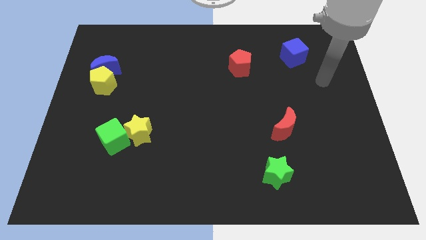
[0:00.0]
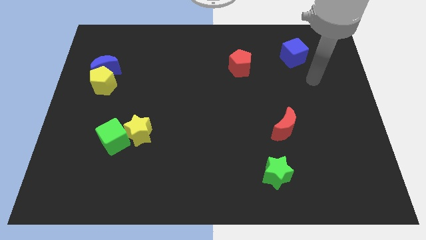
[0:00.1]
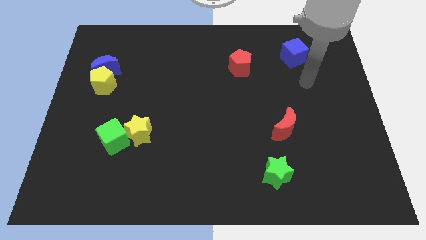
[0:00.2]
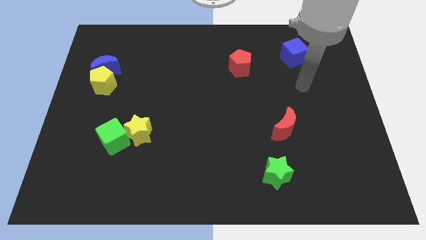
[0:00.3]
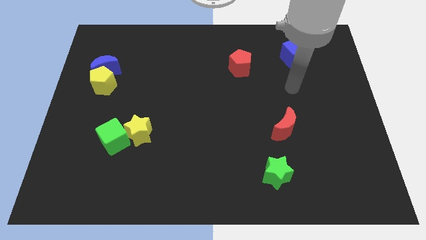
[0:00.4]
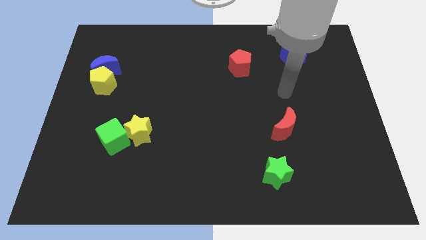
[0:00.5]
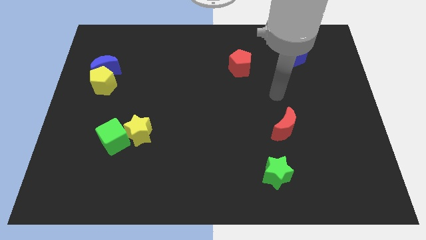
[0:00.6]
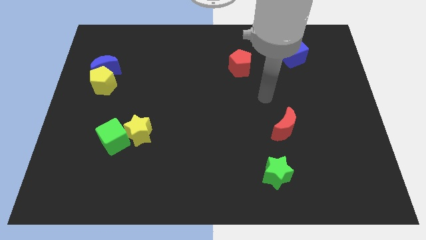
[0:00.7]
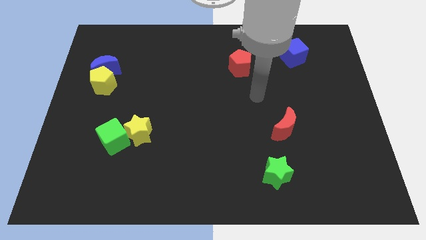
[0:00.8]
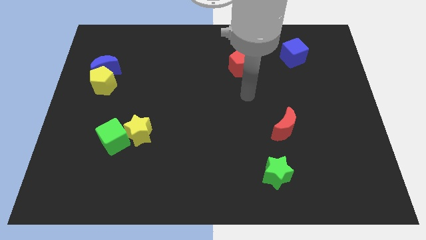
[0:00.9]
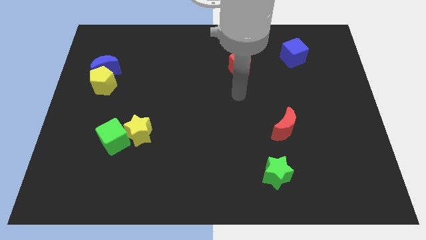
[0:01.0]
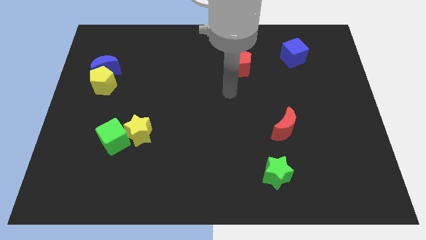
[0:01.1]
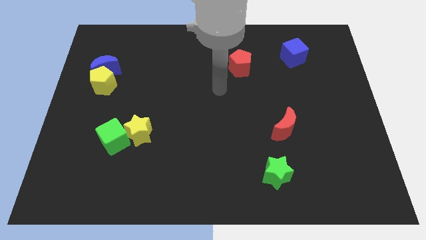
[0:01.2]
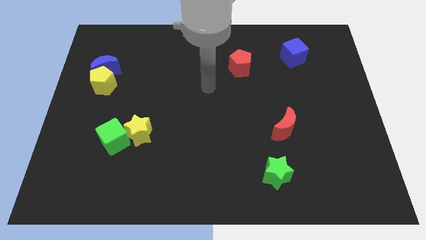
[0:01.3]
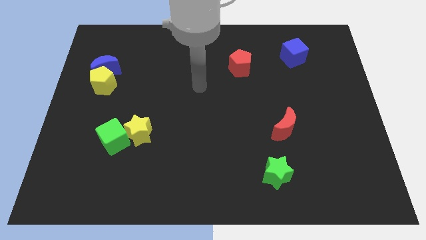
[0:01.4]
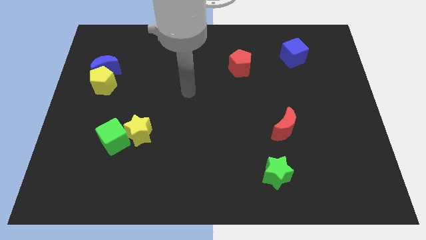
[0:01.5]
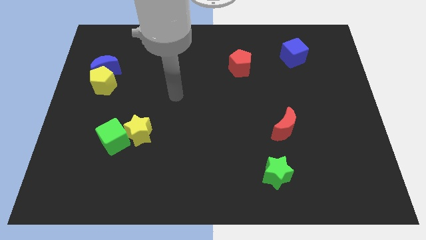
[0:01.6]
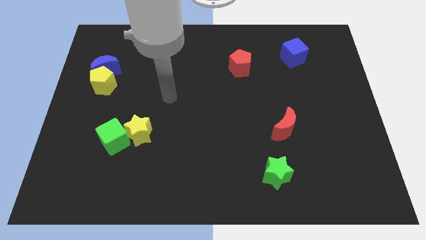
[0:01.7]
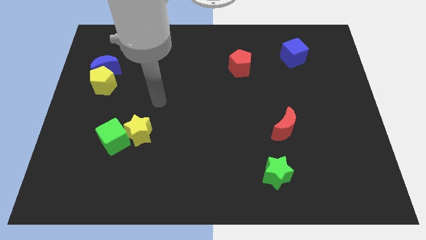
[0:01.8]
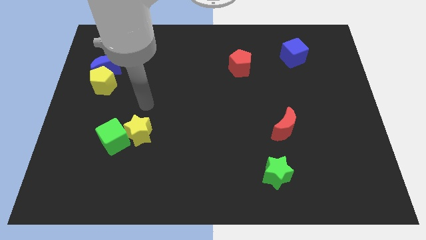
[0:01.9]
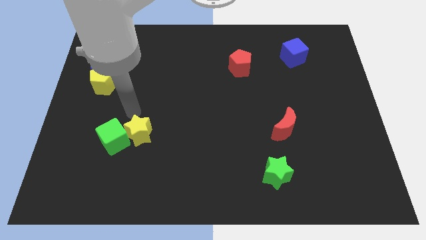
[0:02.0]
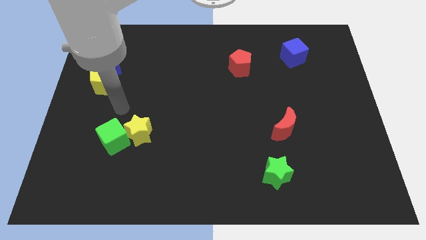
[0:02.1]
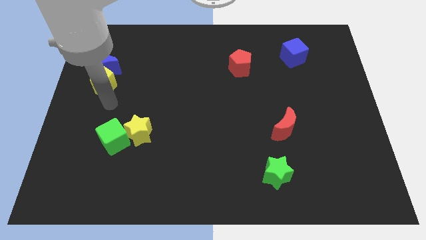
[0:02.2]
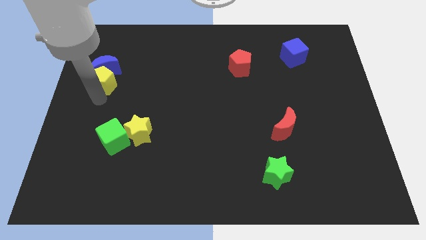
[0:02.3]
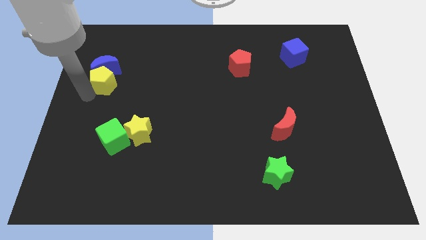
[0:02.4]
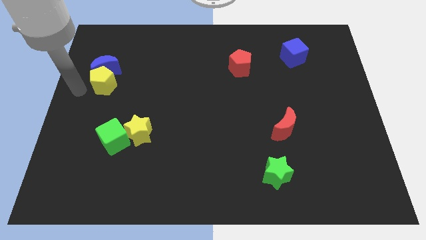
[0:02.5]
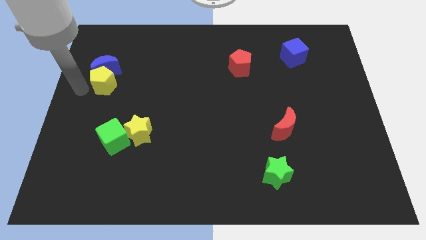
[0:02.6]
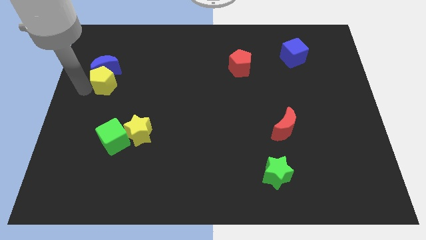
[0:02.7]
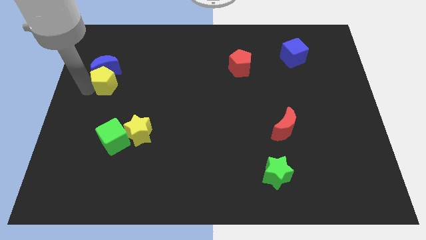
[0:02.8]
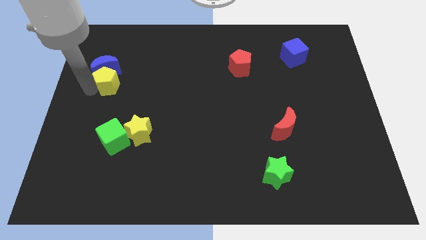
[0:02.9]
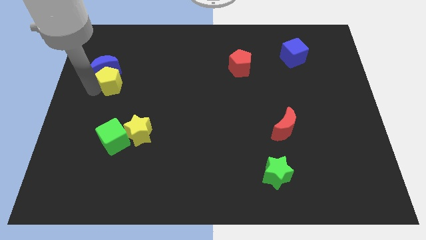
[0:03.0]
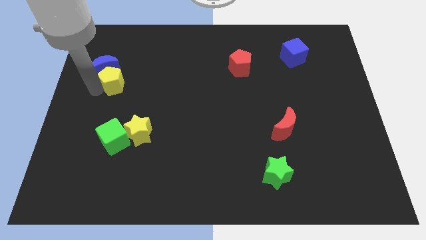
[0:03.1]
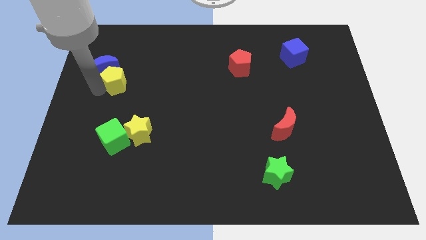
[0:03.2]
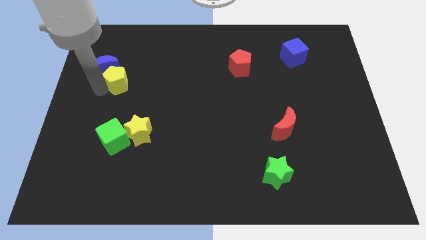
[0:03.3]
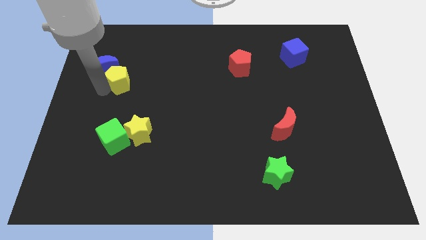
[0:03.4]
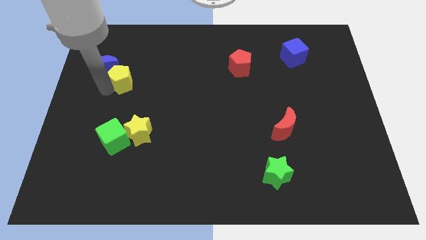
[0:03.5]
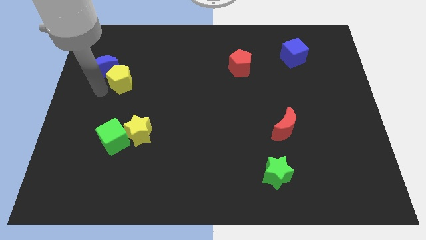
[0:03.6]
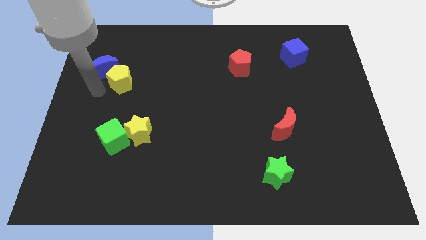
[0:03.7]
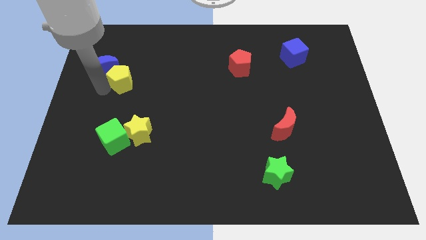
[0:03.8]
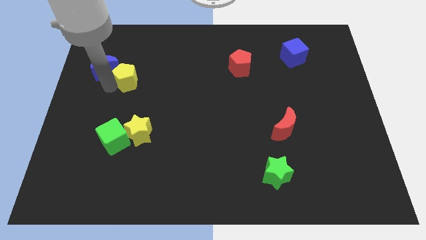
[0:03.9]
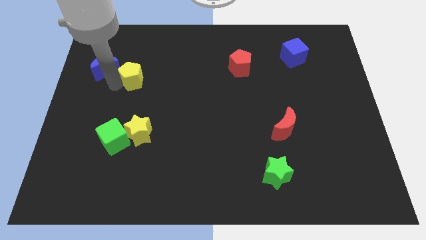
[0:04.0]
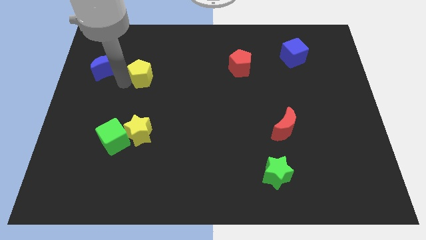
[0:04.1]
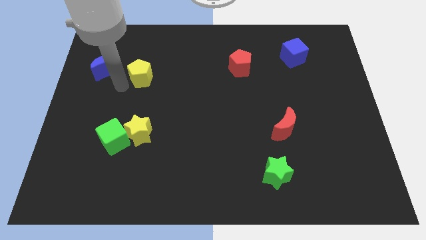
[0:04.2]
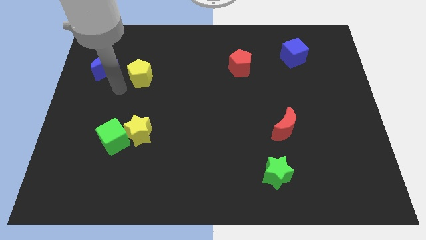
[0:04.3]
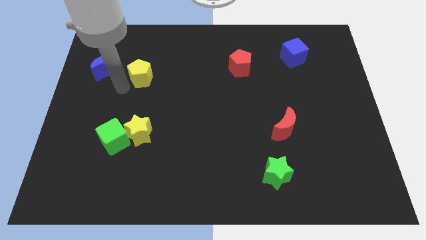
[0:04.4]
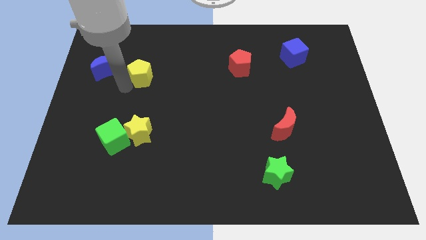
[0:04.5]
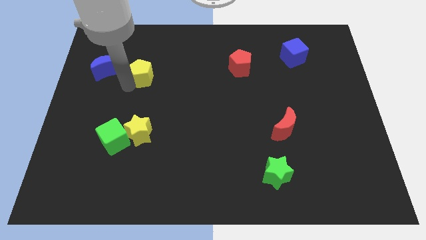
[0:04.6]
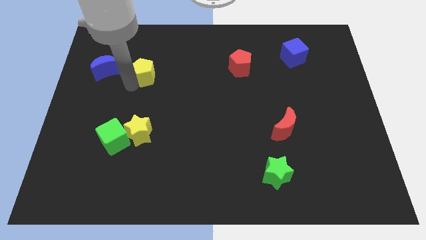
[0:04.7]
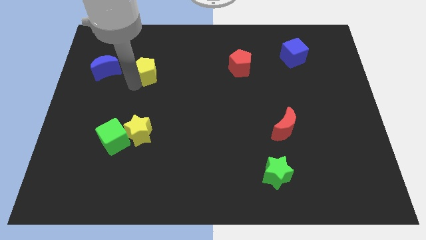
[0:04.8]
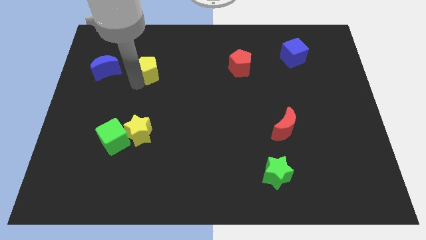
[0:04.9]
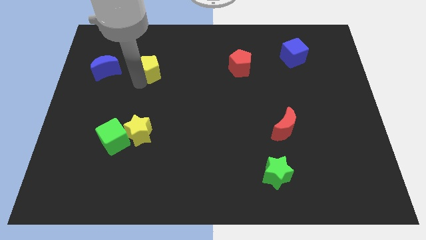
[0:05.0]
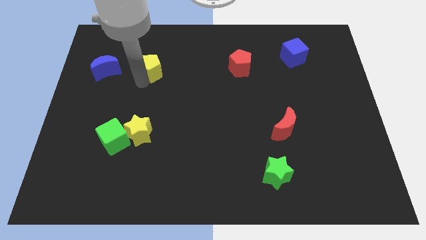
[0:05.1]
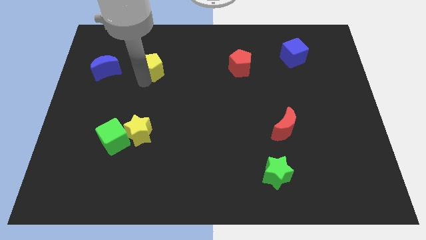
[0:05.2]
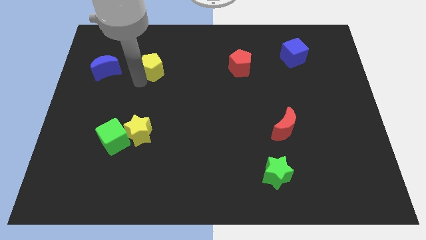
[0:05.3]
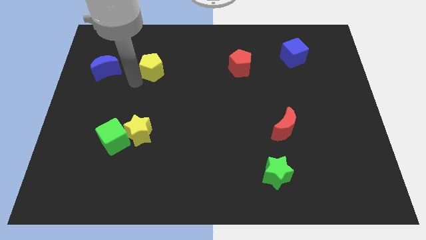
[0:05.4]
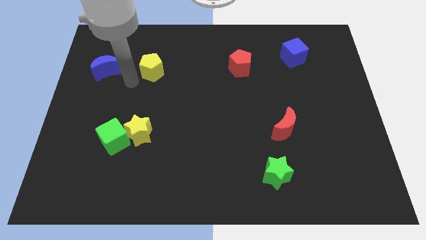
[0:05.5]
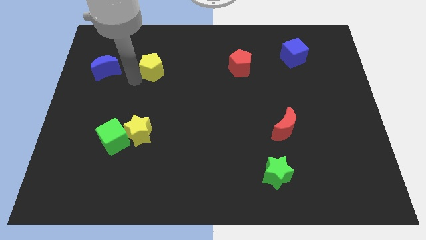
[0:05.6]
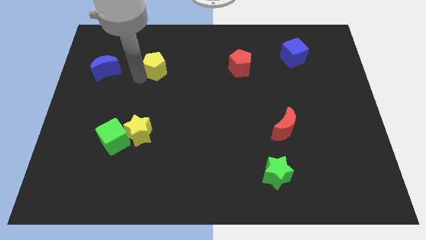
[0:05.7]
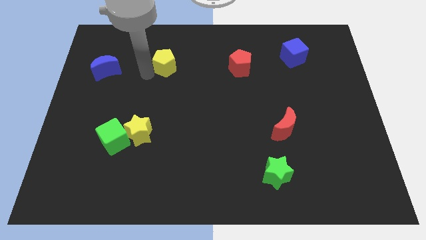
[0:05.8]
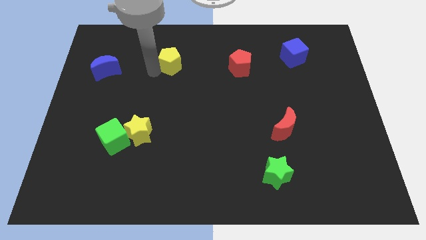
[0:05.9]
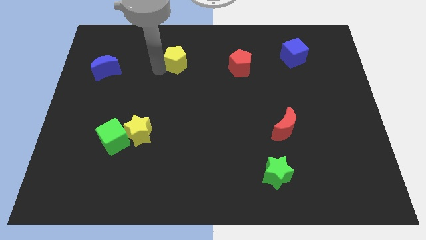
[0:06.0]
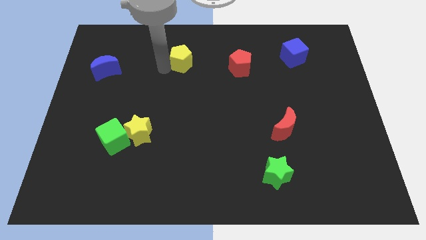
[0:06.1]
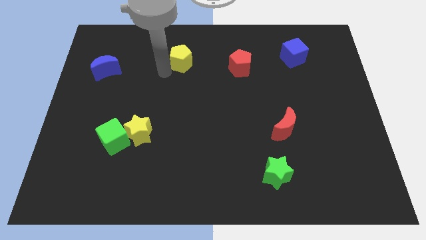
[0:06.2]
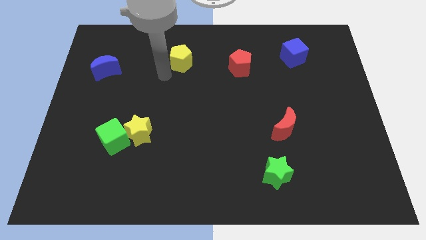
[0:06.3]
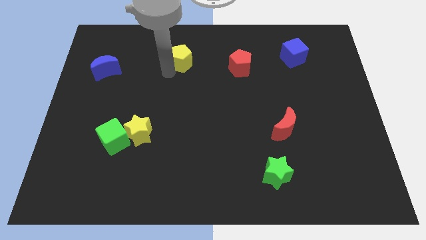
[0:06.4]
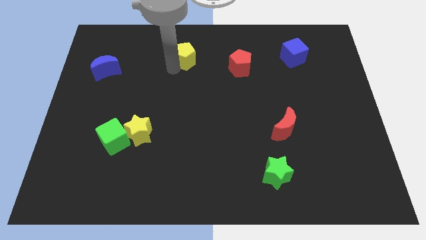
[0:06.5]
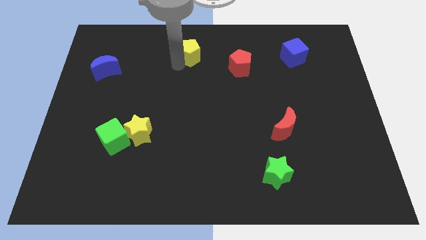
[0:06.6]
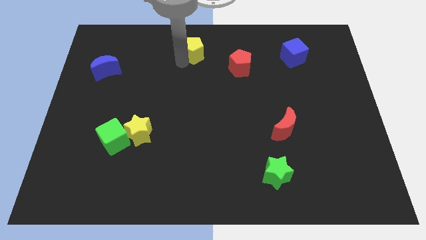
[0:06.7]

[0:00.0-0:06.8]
push the yellow pentagon to the top side
